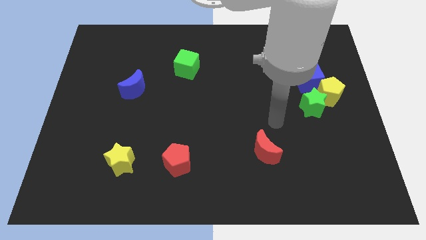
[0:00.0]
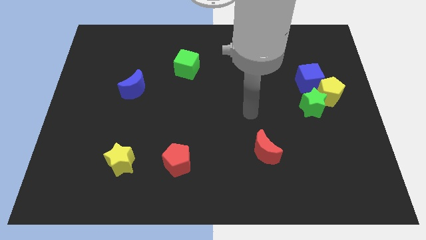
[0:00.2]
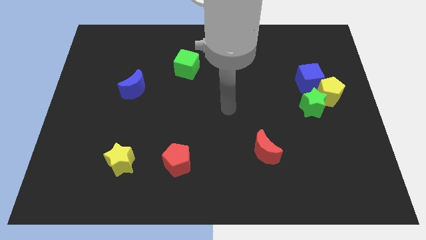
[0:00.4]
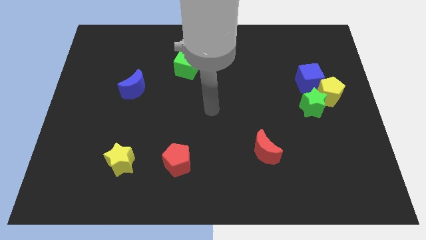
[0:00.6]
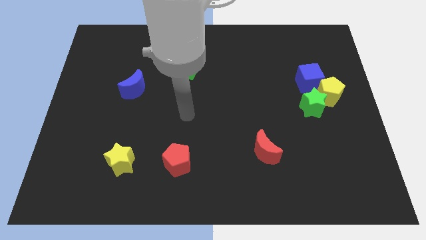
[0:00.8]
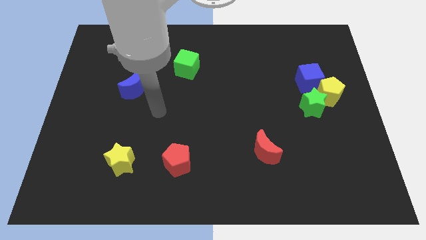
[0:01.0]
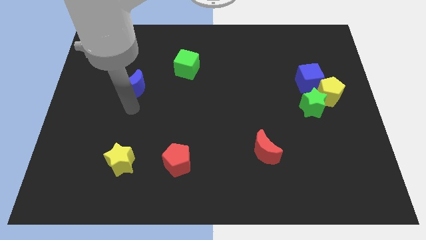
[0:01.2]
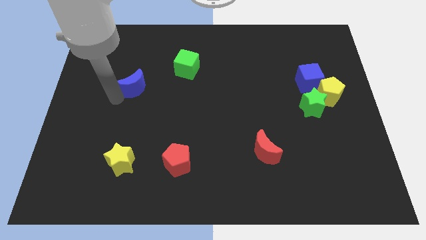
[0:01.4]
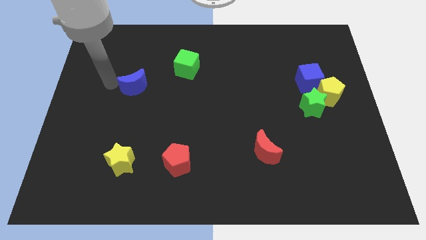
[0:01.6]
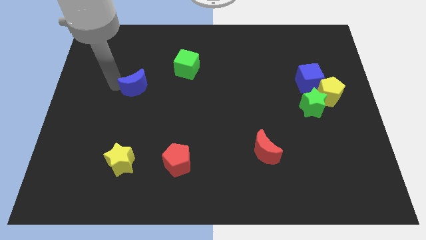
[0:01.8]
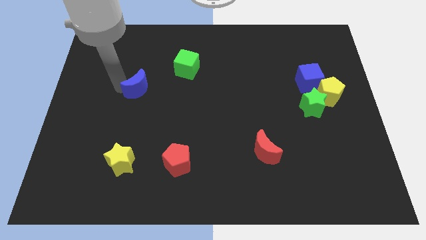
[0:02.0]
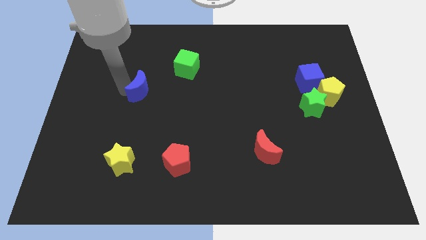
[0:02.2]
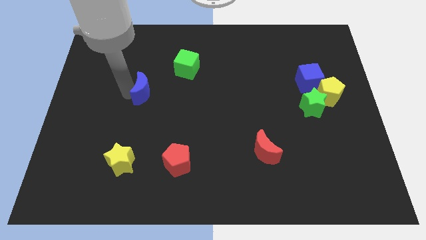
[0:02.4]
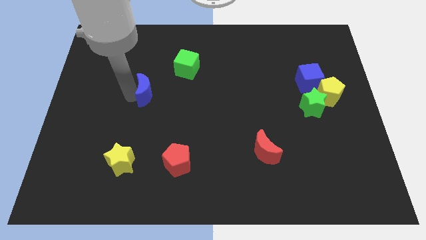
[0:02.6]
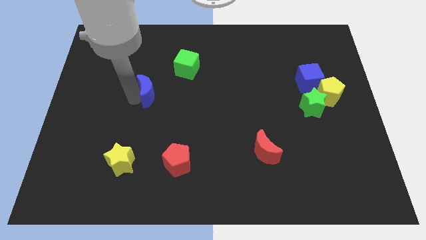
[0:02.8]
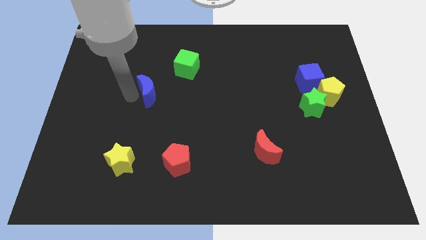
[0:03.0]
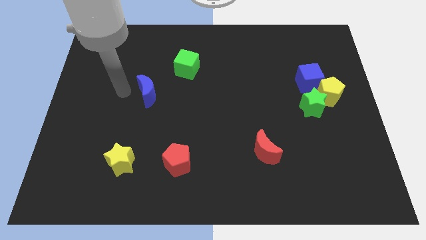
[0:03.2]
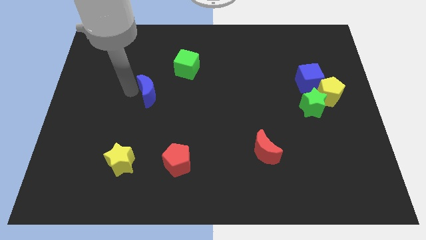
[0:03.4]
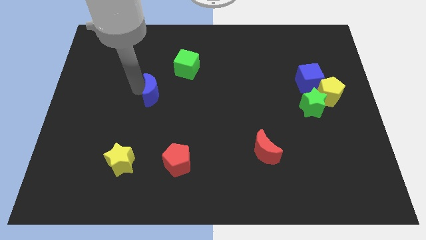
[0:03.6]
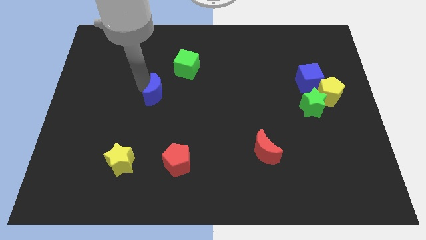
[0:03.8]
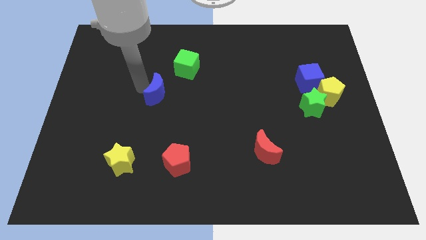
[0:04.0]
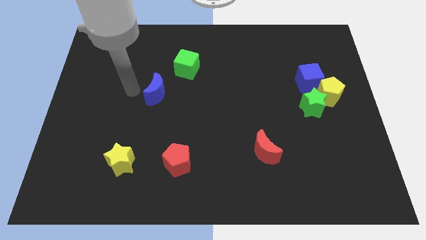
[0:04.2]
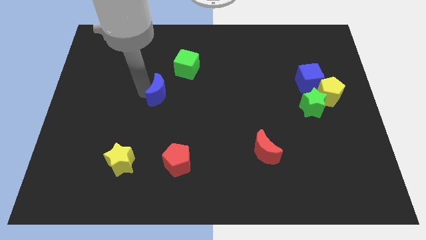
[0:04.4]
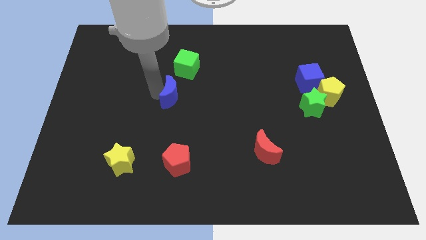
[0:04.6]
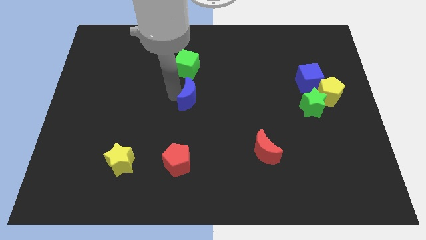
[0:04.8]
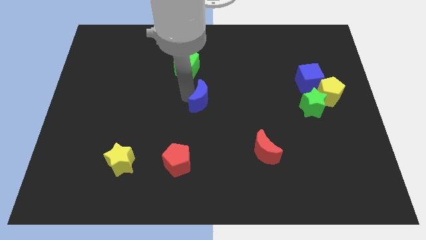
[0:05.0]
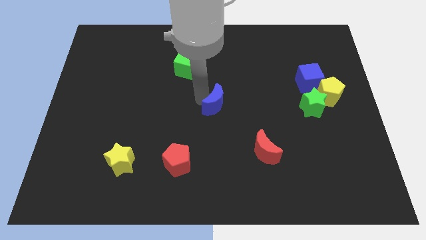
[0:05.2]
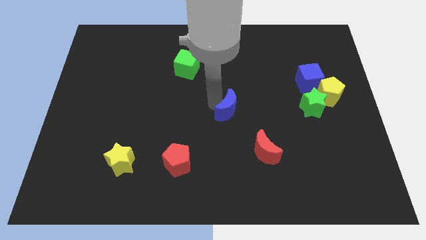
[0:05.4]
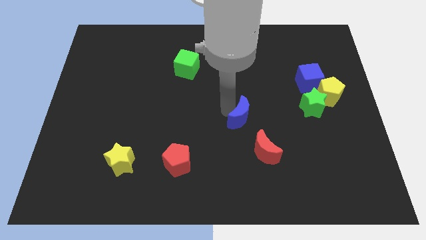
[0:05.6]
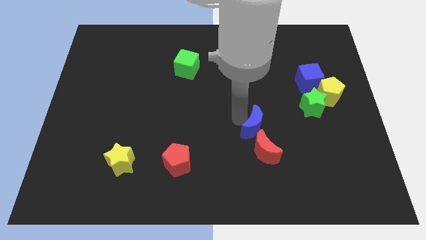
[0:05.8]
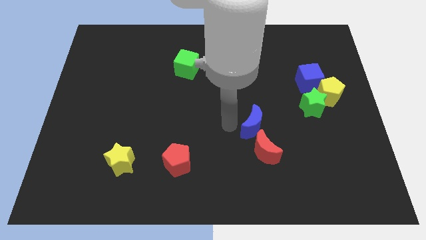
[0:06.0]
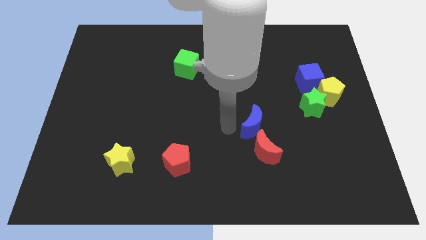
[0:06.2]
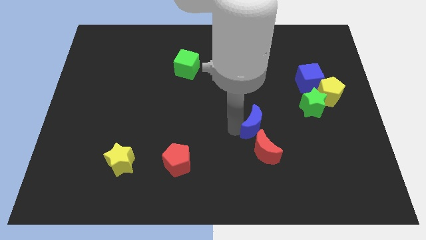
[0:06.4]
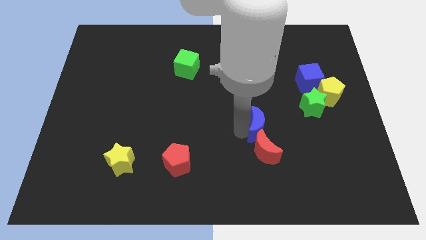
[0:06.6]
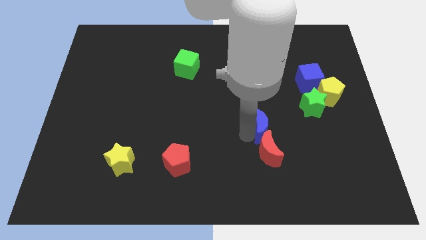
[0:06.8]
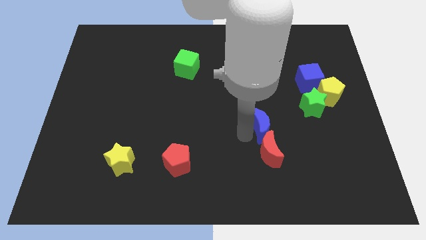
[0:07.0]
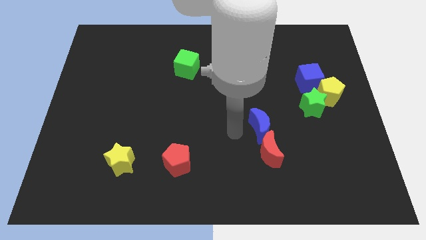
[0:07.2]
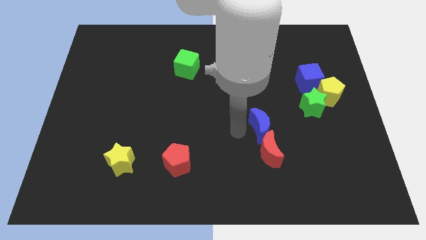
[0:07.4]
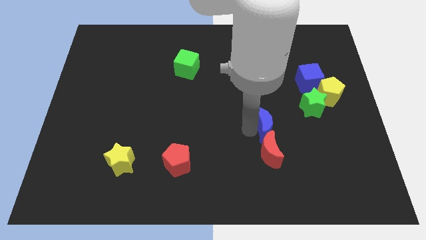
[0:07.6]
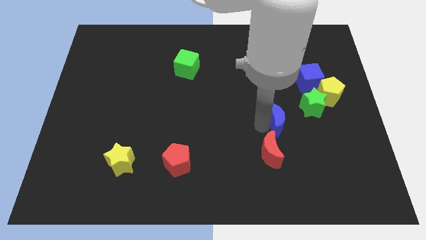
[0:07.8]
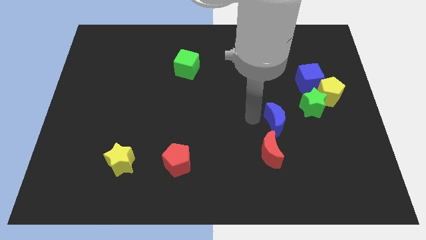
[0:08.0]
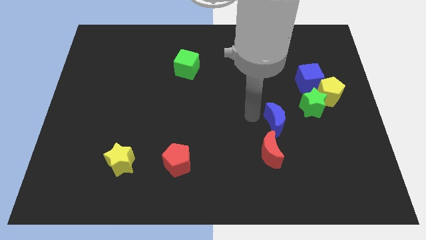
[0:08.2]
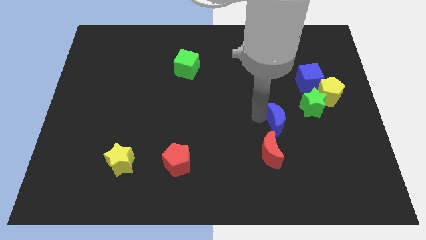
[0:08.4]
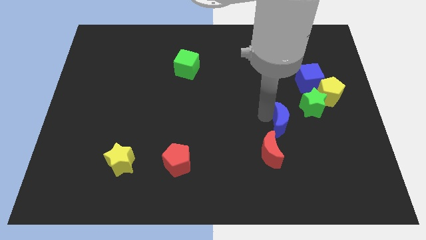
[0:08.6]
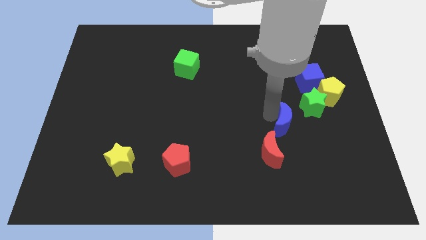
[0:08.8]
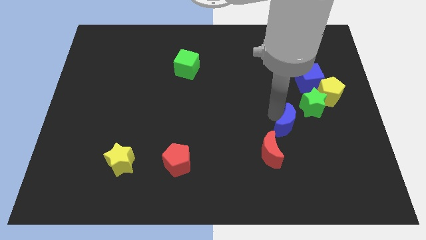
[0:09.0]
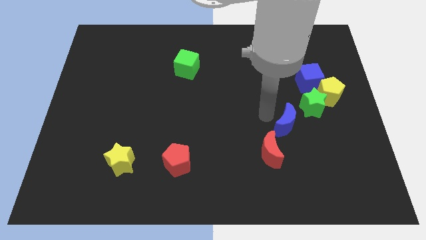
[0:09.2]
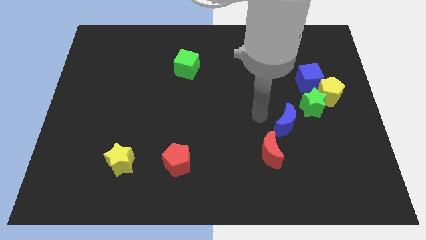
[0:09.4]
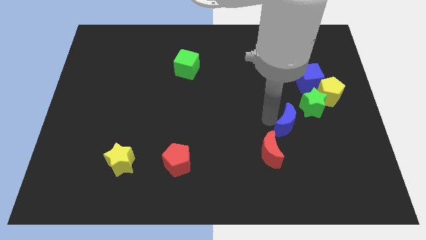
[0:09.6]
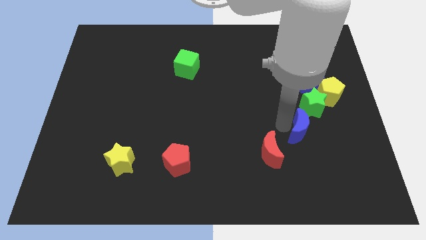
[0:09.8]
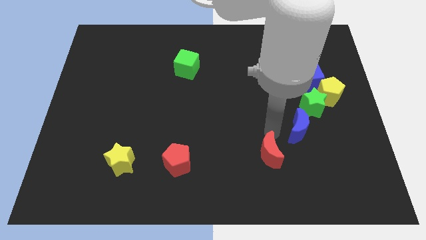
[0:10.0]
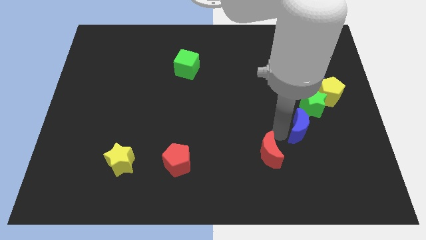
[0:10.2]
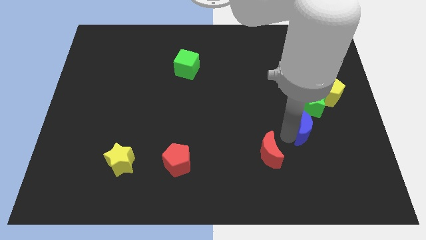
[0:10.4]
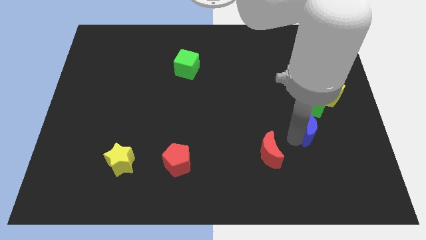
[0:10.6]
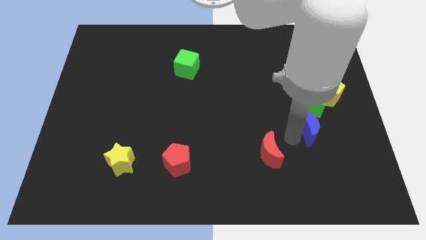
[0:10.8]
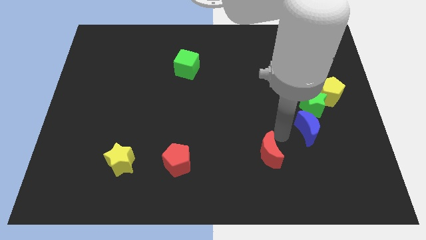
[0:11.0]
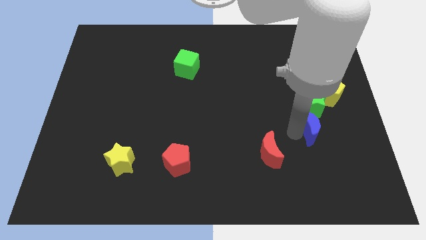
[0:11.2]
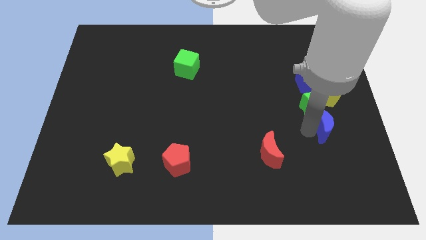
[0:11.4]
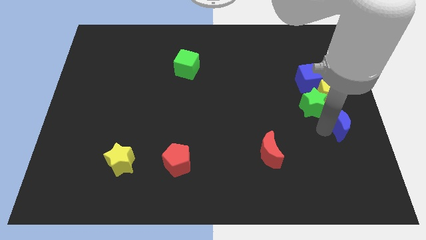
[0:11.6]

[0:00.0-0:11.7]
push the blue moon to the right side

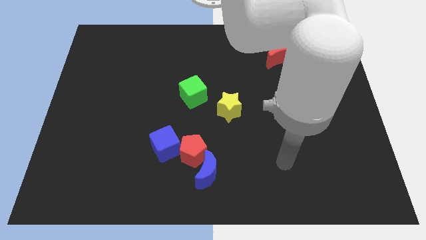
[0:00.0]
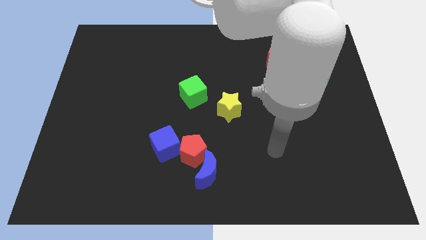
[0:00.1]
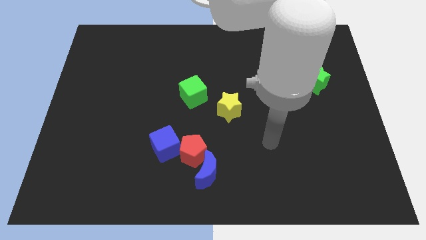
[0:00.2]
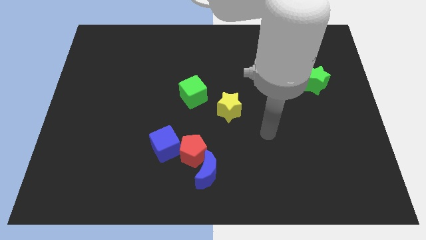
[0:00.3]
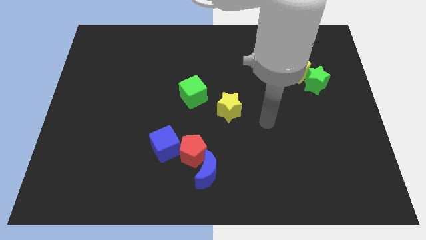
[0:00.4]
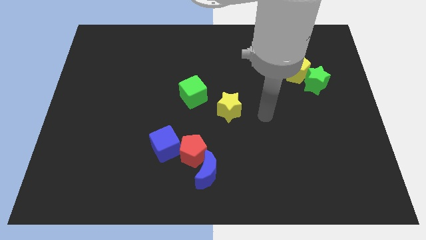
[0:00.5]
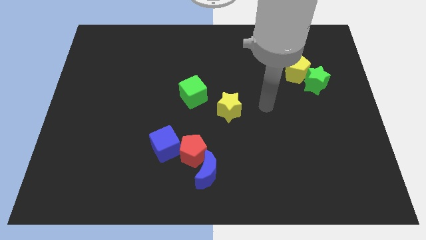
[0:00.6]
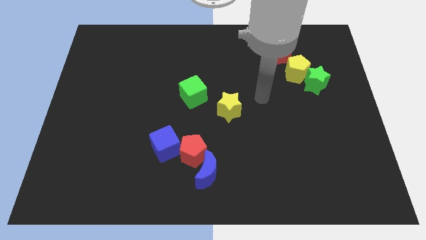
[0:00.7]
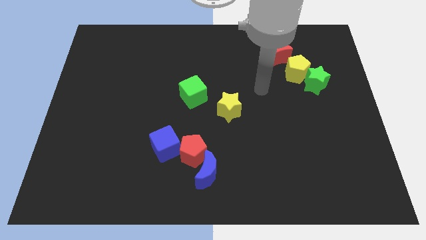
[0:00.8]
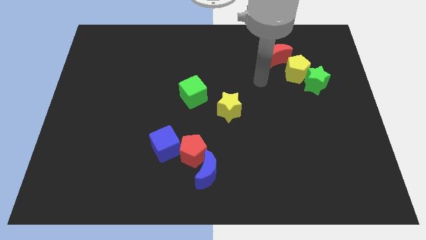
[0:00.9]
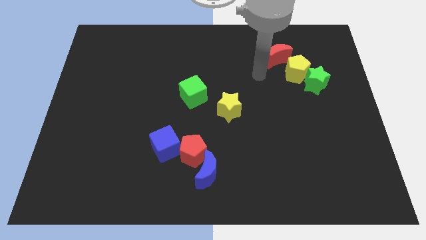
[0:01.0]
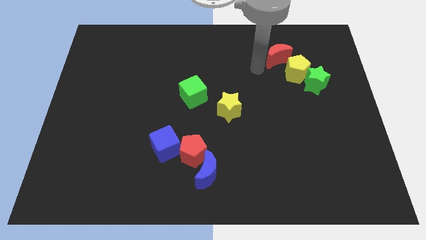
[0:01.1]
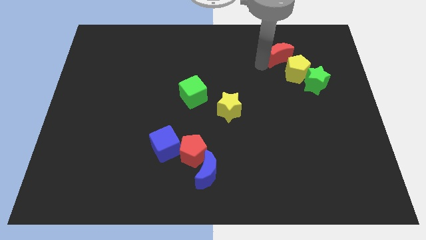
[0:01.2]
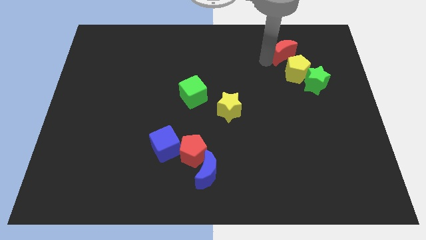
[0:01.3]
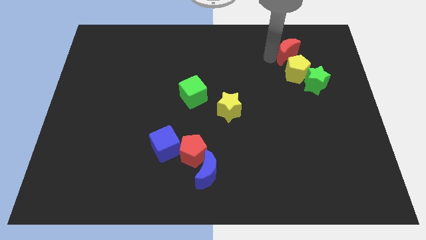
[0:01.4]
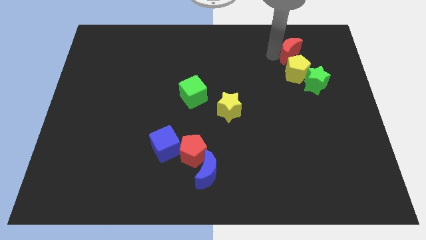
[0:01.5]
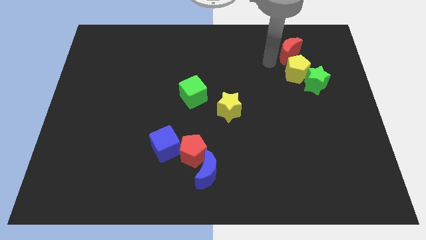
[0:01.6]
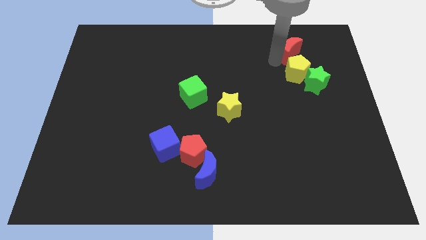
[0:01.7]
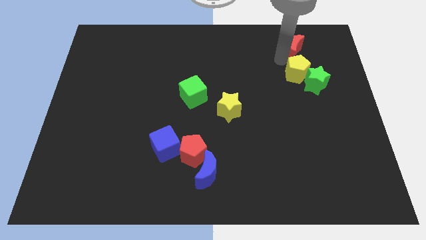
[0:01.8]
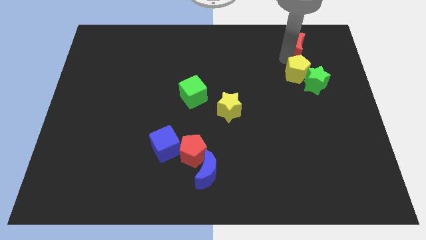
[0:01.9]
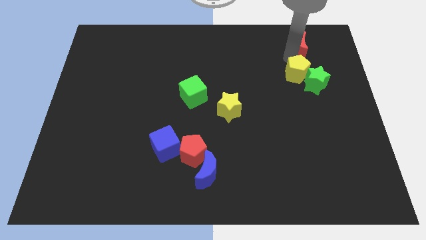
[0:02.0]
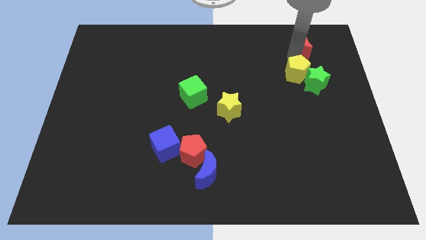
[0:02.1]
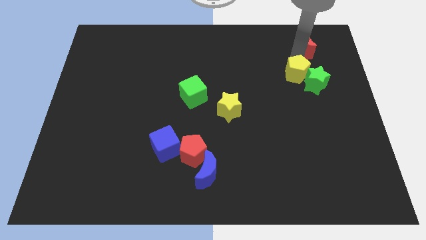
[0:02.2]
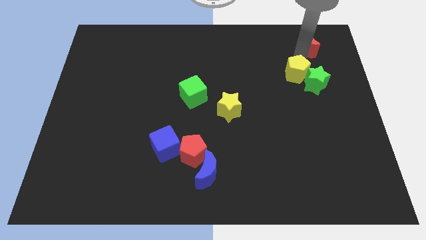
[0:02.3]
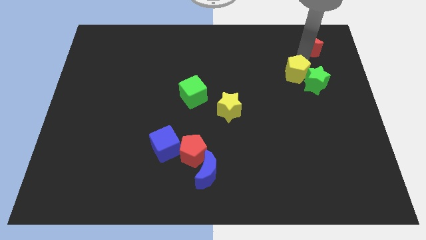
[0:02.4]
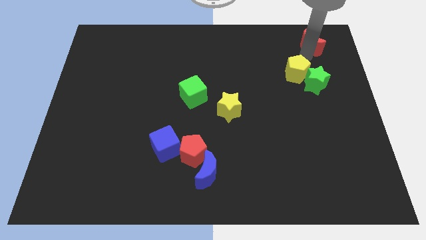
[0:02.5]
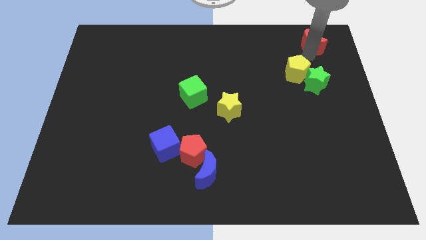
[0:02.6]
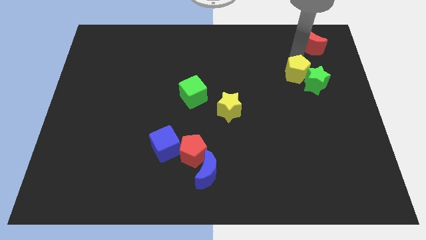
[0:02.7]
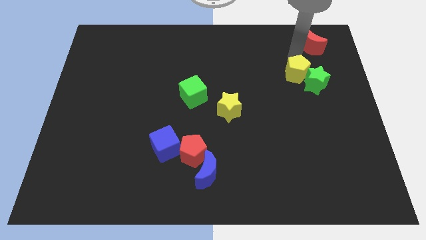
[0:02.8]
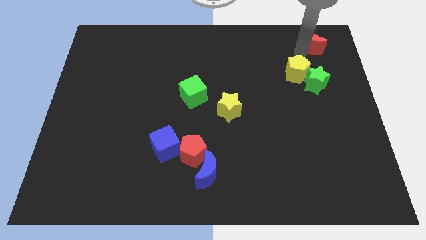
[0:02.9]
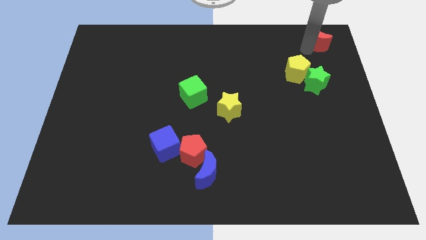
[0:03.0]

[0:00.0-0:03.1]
push the red moon to the upper right corner
